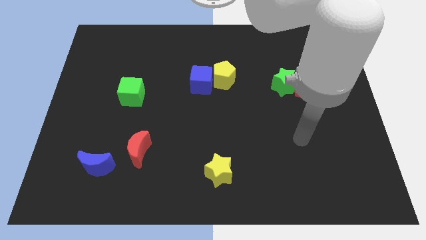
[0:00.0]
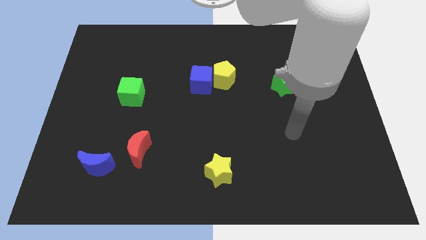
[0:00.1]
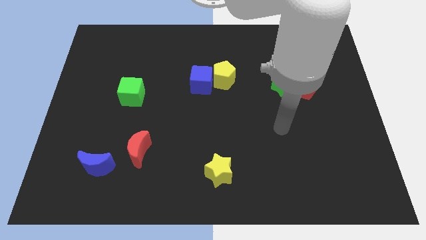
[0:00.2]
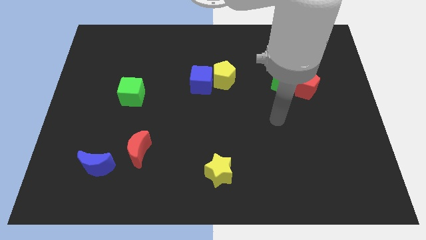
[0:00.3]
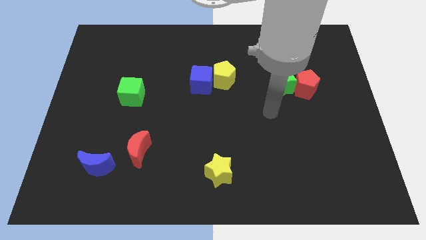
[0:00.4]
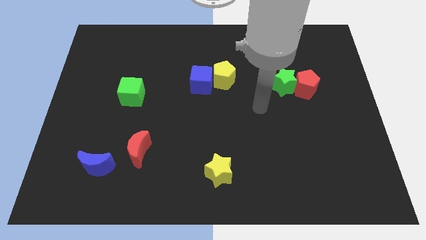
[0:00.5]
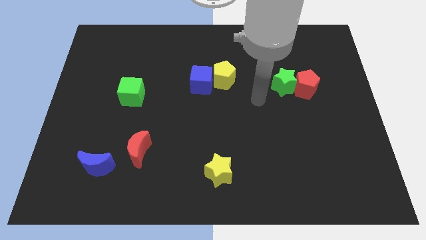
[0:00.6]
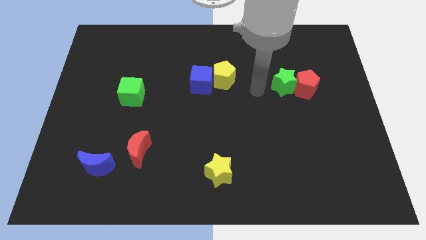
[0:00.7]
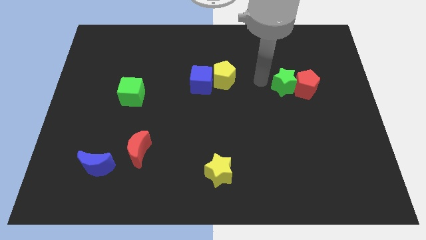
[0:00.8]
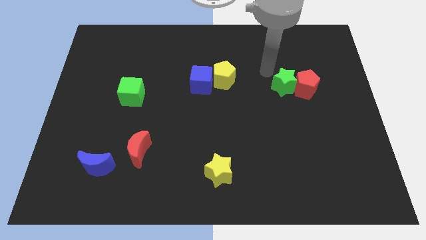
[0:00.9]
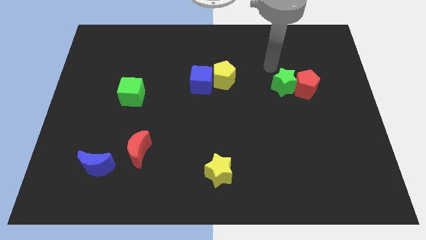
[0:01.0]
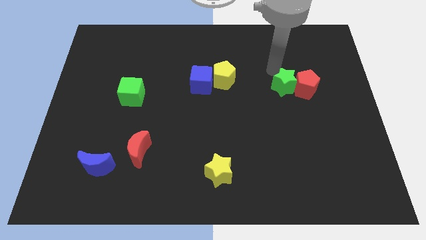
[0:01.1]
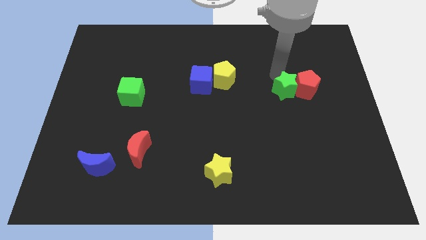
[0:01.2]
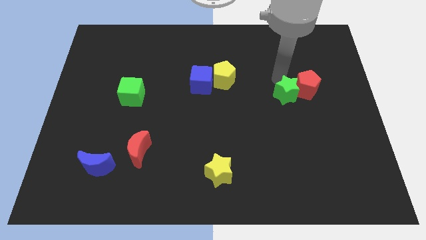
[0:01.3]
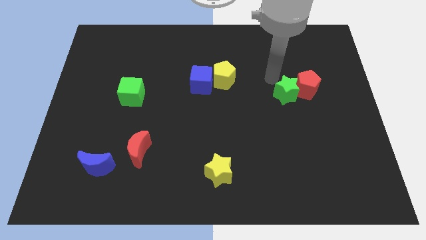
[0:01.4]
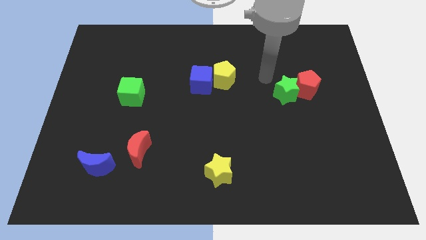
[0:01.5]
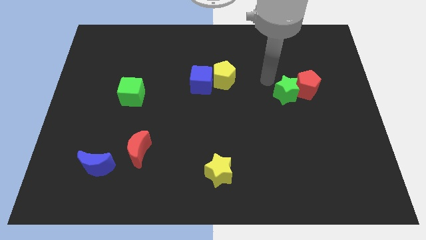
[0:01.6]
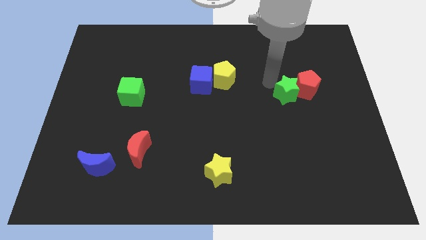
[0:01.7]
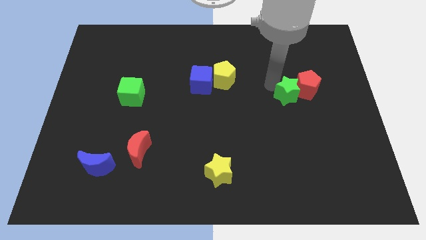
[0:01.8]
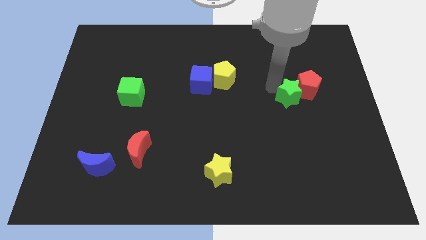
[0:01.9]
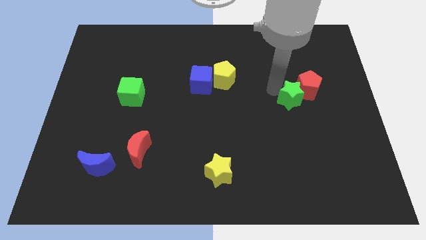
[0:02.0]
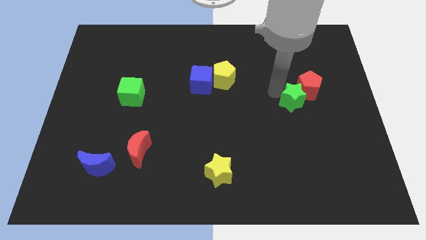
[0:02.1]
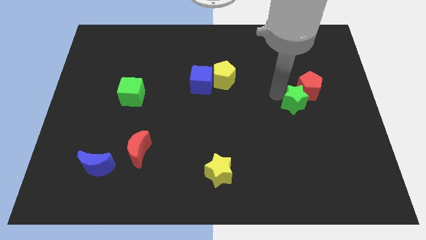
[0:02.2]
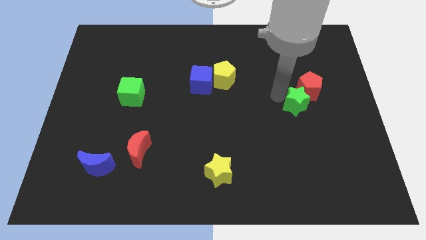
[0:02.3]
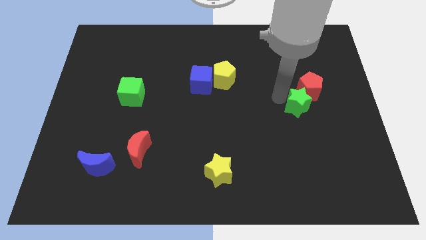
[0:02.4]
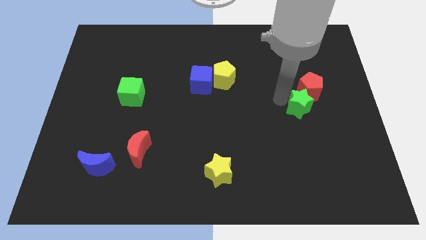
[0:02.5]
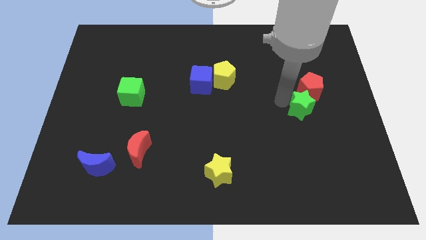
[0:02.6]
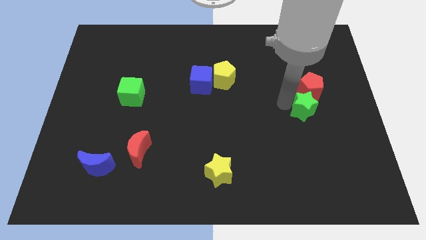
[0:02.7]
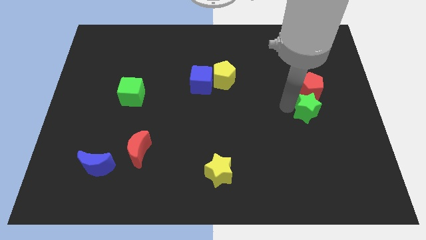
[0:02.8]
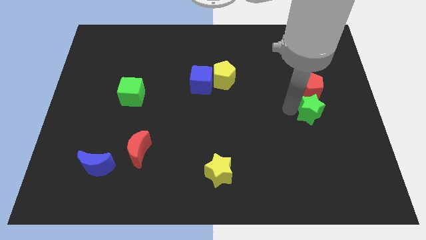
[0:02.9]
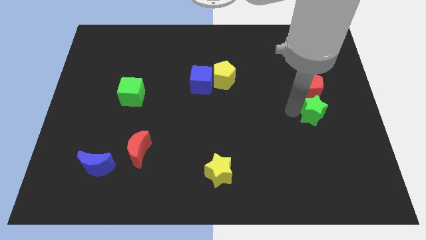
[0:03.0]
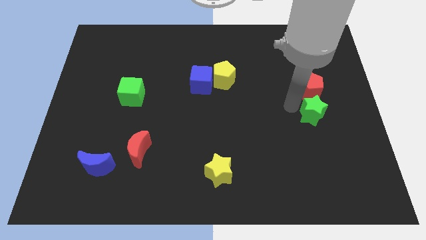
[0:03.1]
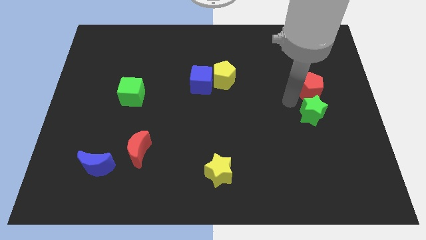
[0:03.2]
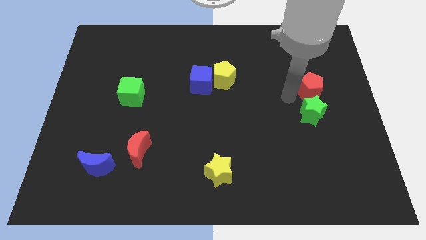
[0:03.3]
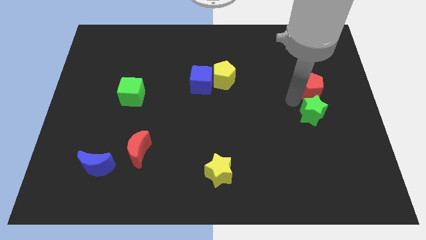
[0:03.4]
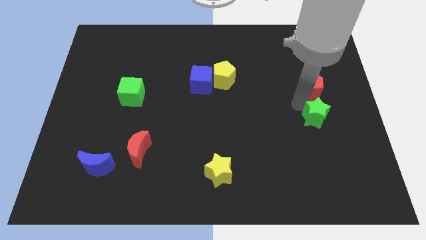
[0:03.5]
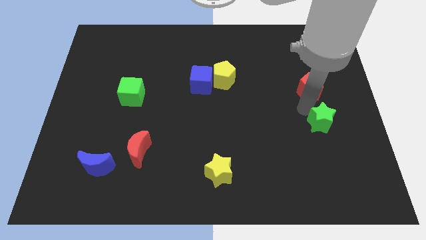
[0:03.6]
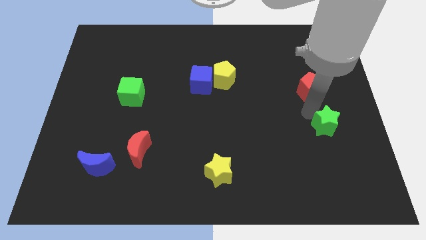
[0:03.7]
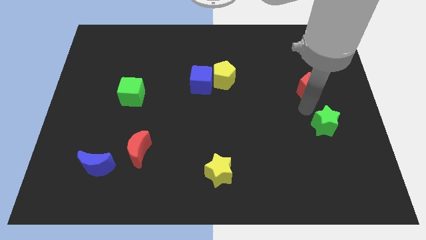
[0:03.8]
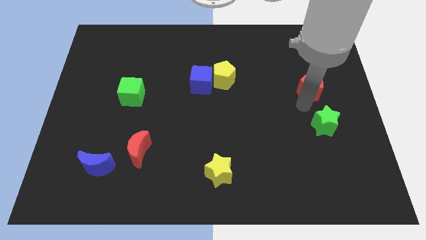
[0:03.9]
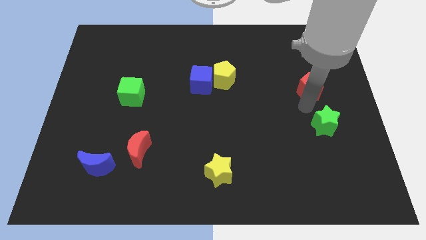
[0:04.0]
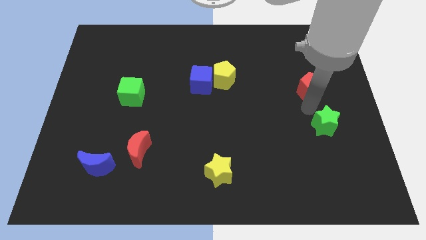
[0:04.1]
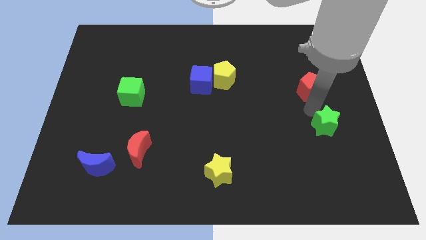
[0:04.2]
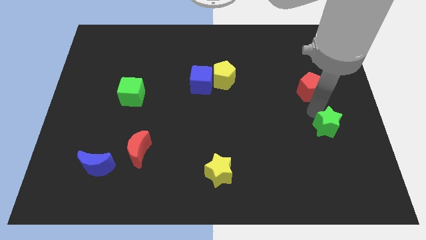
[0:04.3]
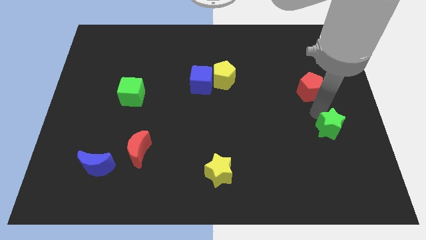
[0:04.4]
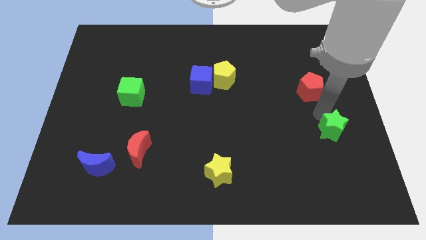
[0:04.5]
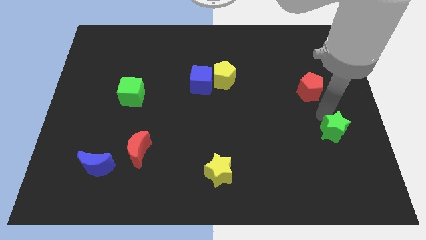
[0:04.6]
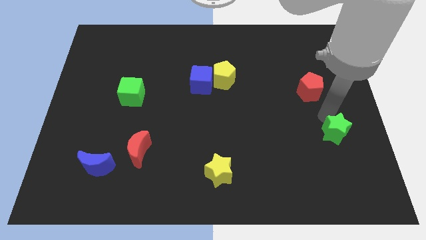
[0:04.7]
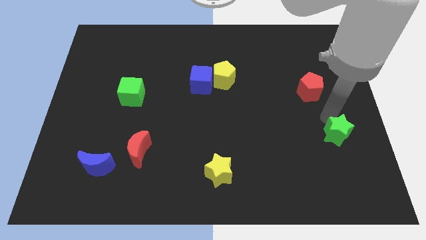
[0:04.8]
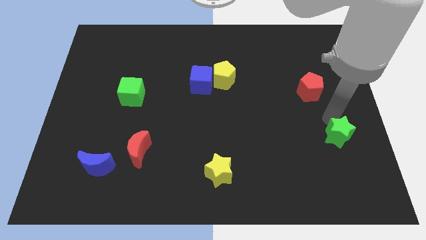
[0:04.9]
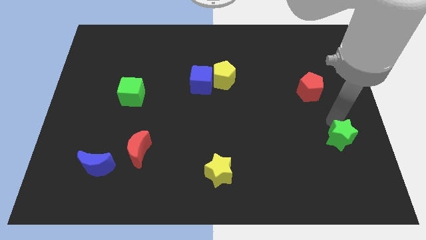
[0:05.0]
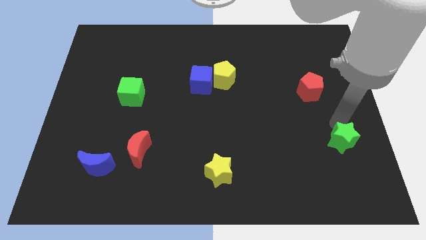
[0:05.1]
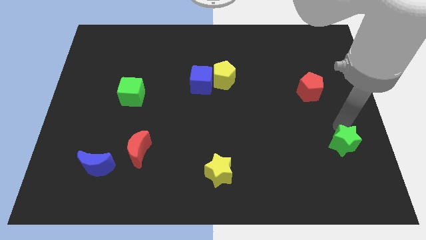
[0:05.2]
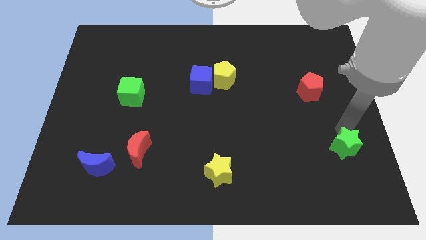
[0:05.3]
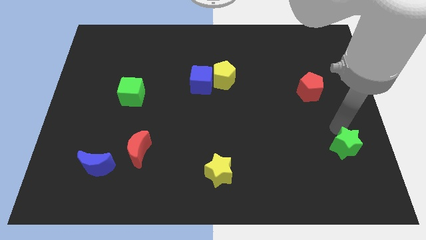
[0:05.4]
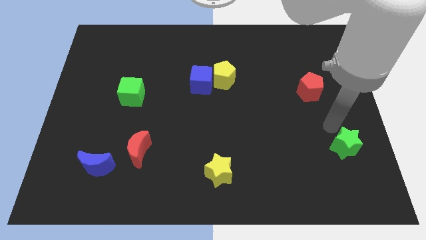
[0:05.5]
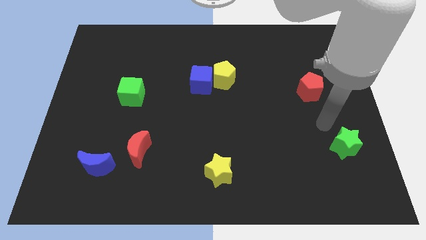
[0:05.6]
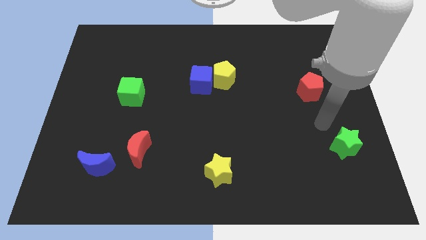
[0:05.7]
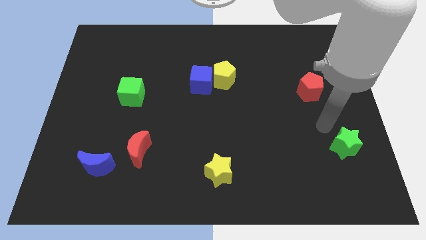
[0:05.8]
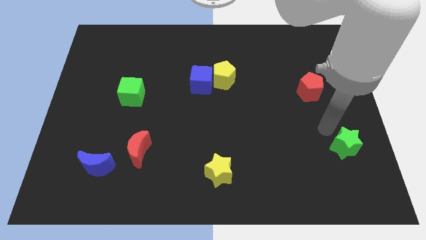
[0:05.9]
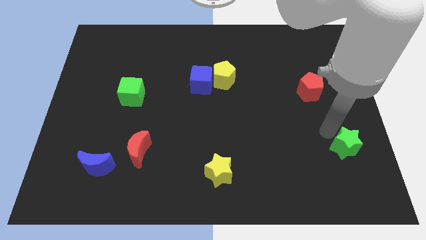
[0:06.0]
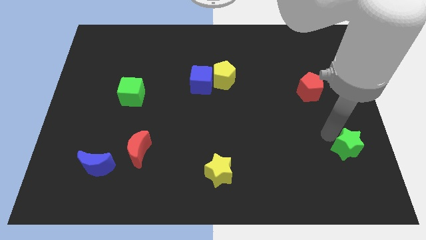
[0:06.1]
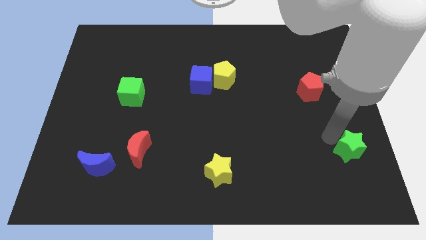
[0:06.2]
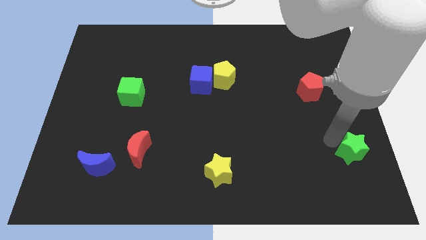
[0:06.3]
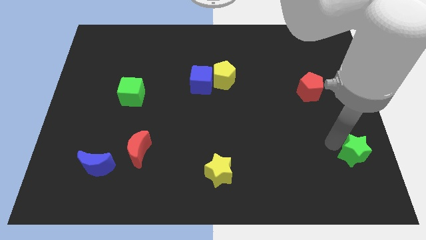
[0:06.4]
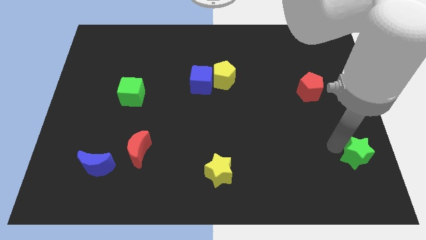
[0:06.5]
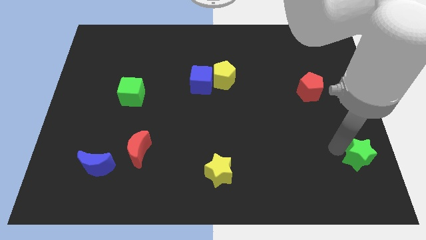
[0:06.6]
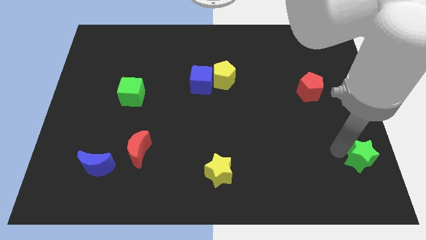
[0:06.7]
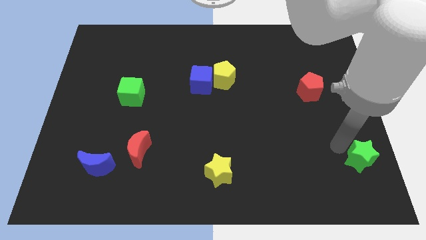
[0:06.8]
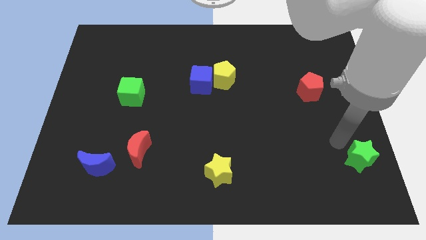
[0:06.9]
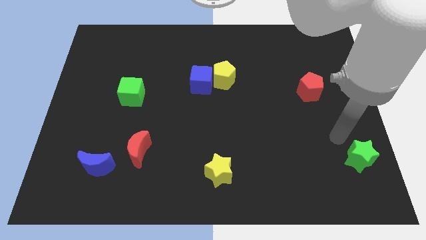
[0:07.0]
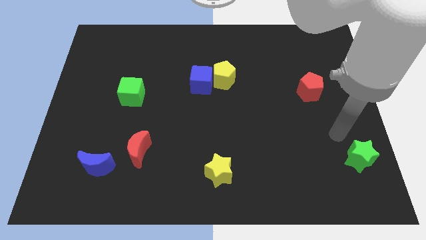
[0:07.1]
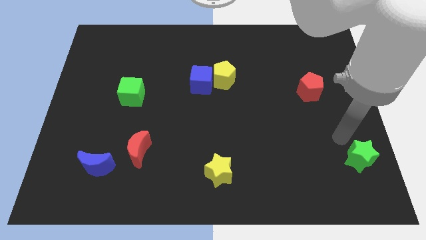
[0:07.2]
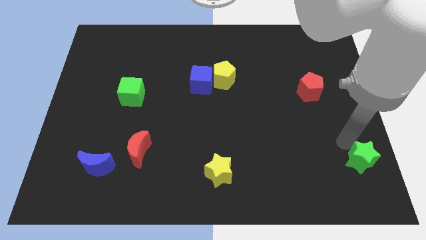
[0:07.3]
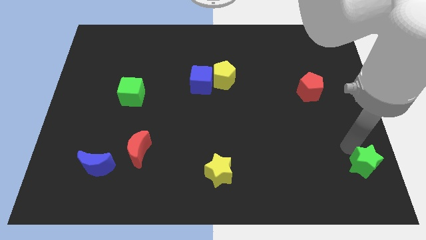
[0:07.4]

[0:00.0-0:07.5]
move the green star to the bottom right
